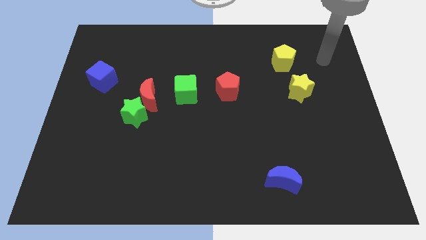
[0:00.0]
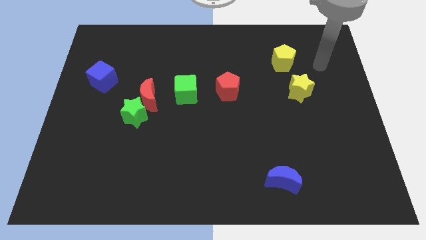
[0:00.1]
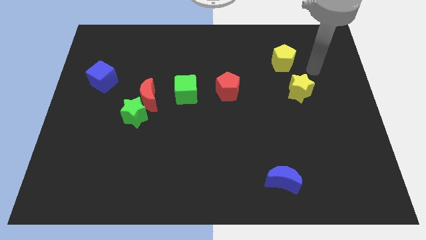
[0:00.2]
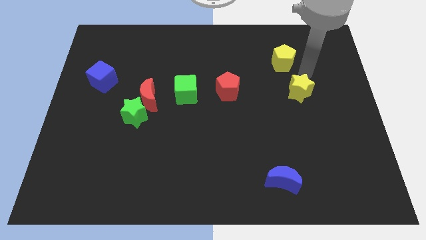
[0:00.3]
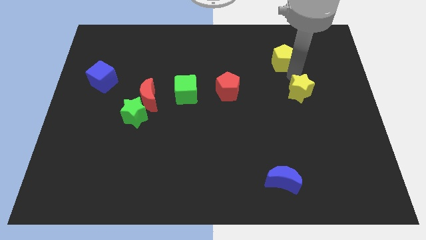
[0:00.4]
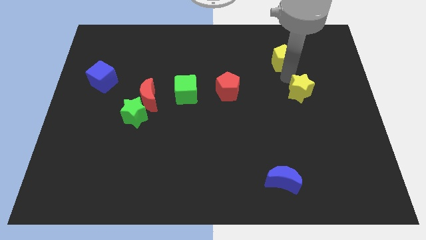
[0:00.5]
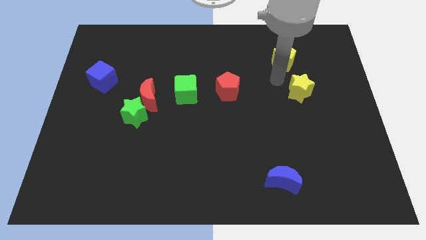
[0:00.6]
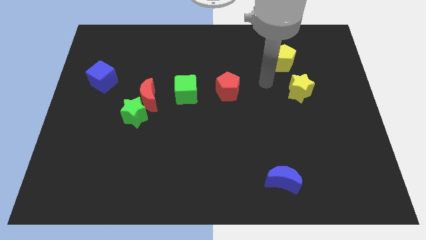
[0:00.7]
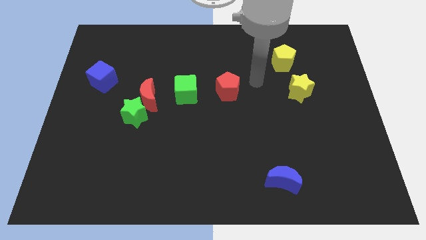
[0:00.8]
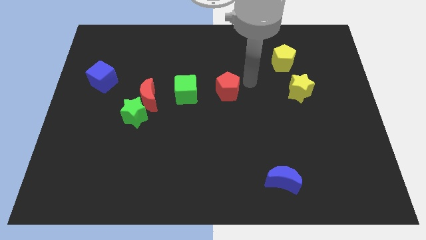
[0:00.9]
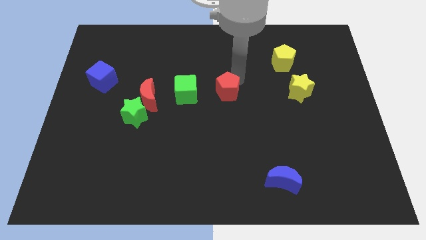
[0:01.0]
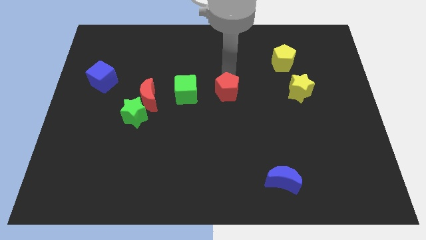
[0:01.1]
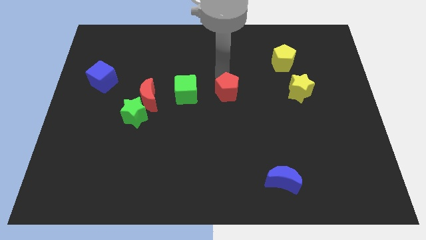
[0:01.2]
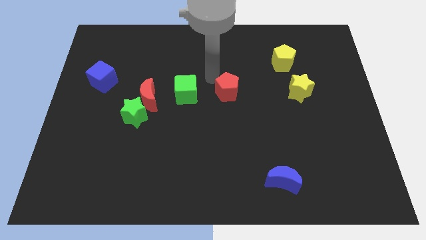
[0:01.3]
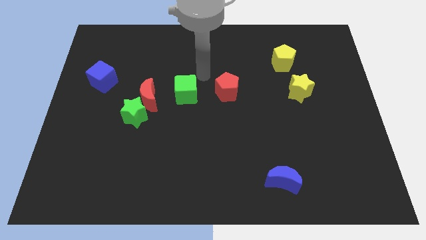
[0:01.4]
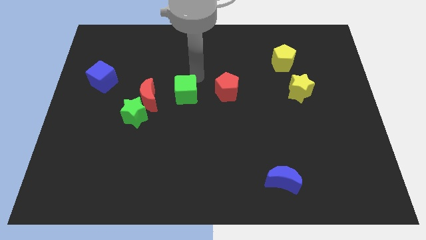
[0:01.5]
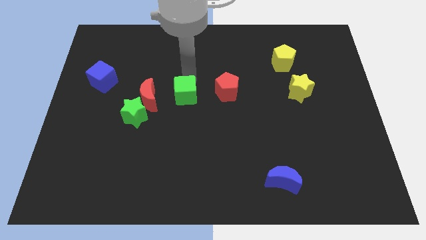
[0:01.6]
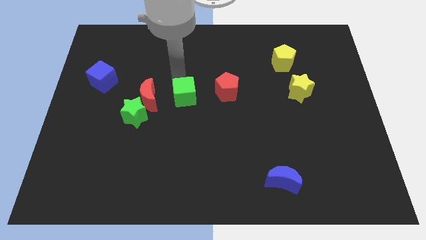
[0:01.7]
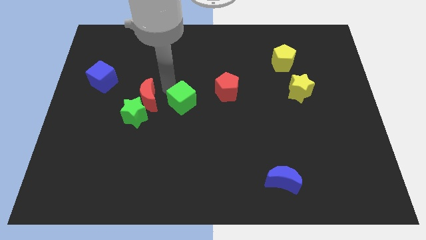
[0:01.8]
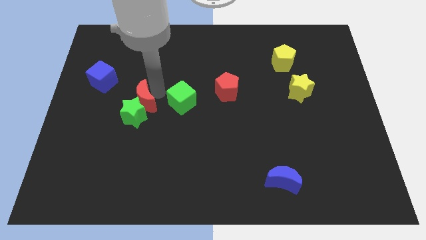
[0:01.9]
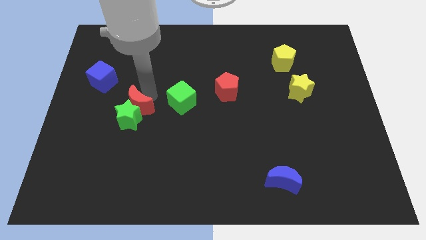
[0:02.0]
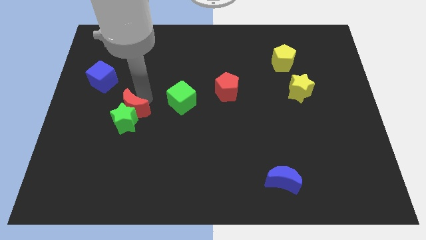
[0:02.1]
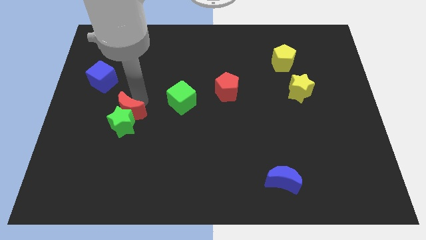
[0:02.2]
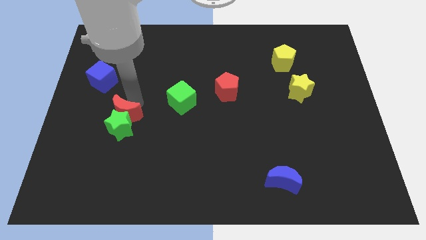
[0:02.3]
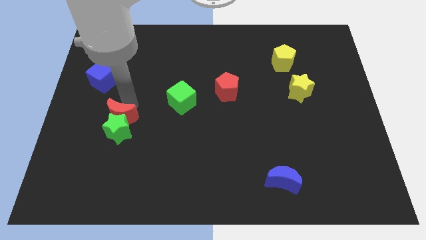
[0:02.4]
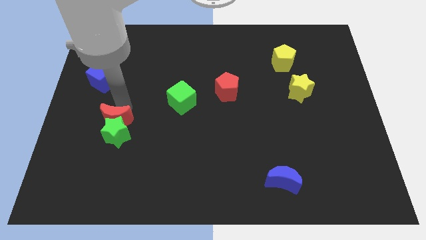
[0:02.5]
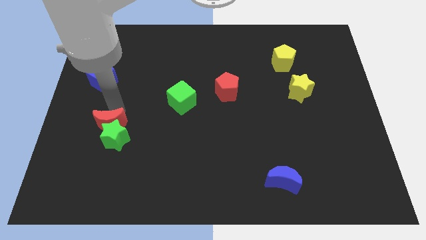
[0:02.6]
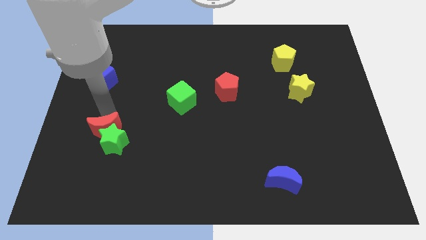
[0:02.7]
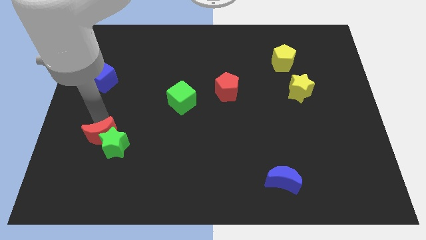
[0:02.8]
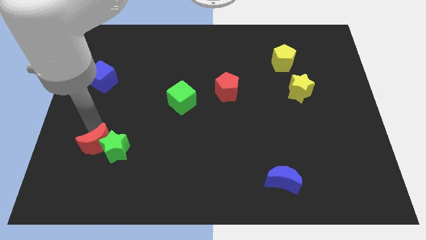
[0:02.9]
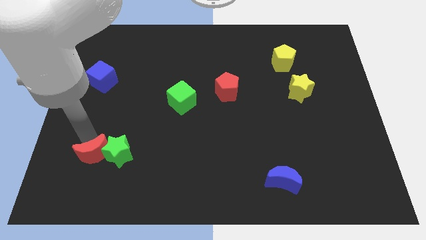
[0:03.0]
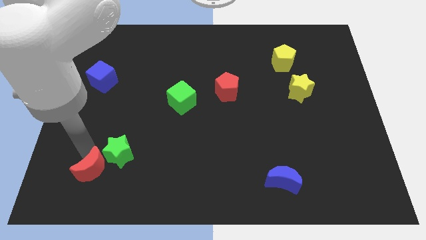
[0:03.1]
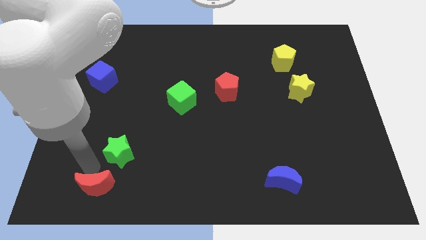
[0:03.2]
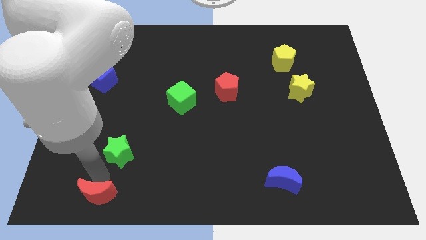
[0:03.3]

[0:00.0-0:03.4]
separate the green star from the red moon

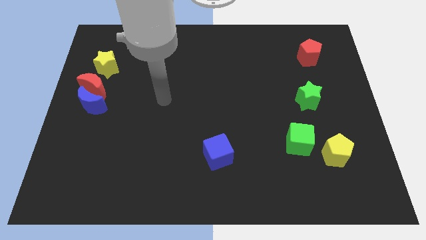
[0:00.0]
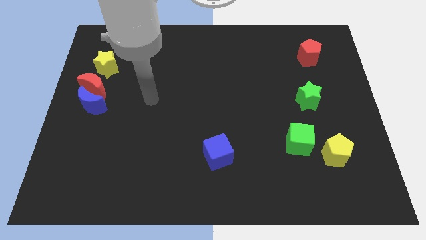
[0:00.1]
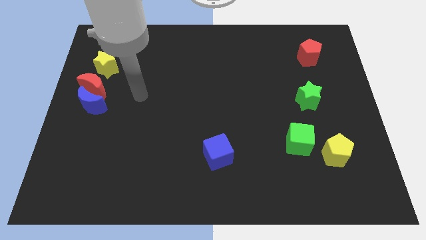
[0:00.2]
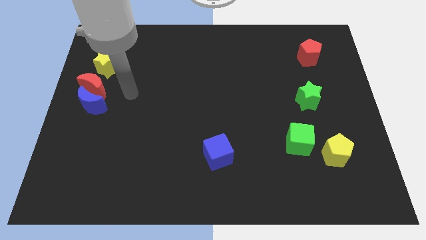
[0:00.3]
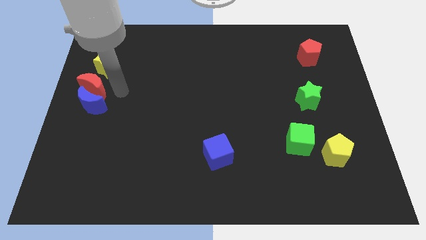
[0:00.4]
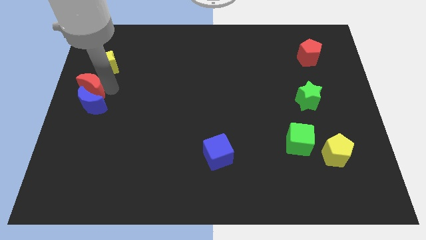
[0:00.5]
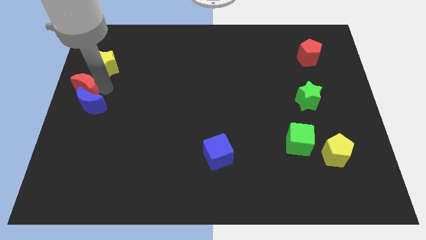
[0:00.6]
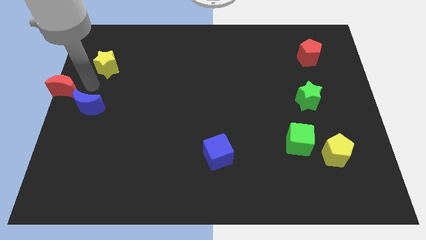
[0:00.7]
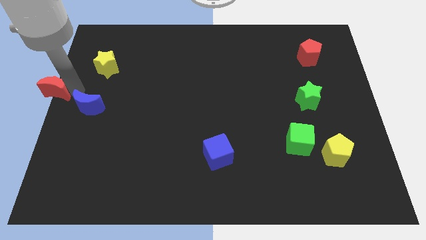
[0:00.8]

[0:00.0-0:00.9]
separate the blue moon from the red moon

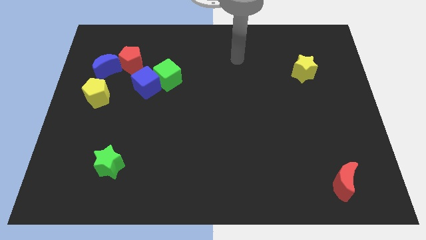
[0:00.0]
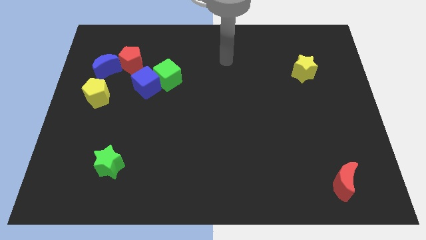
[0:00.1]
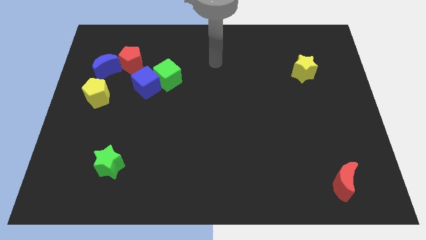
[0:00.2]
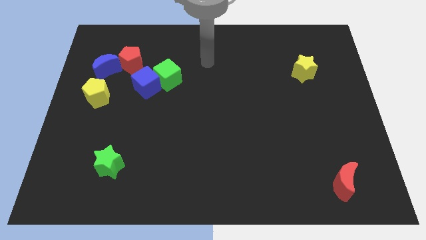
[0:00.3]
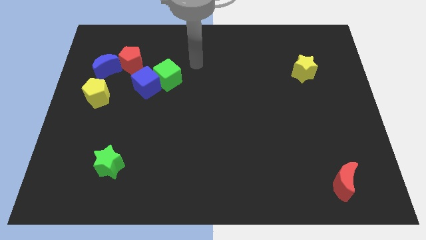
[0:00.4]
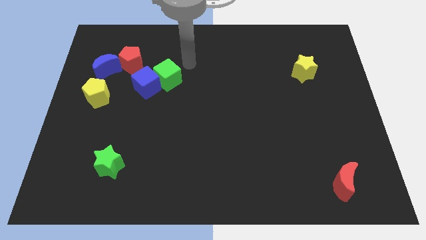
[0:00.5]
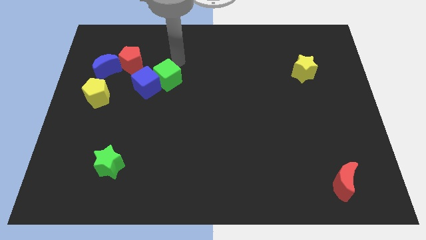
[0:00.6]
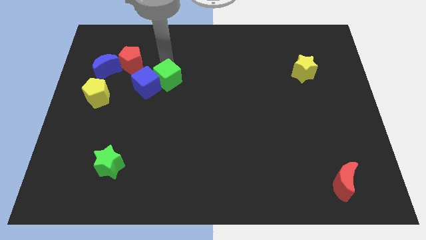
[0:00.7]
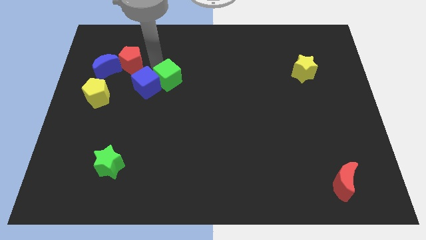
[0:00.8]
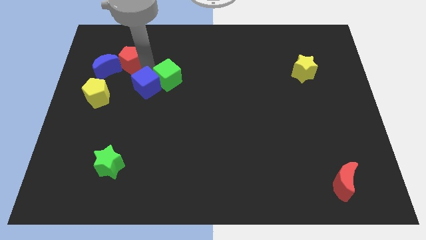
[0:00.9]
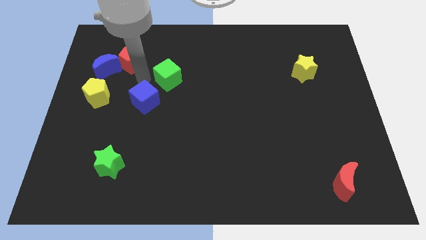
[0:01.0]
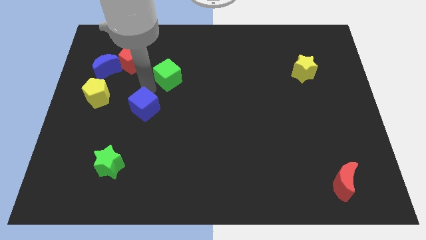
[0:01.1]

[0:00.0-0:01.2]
move the green cube away from the blue cube

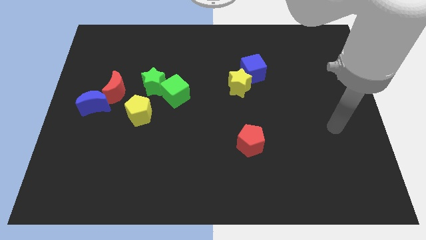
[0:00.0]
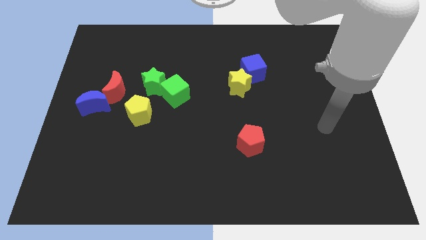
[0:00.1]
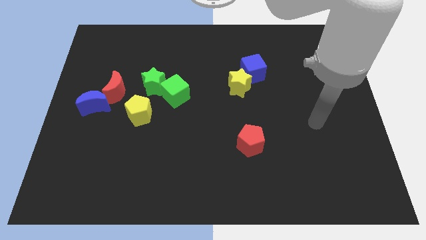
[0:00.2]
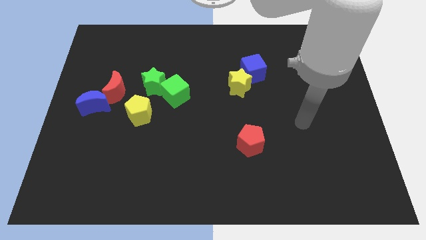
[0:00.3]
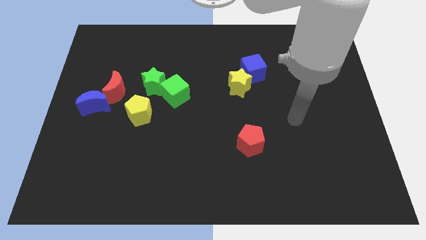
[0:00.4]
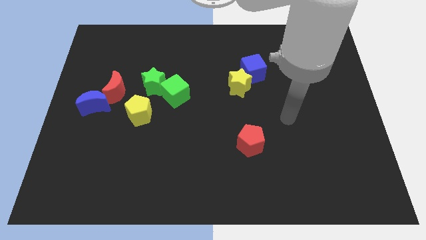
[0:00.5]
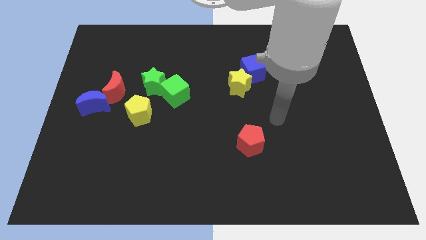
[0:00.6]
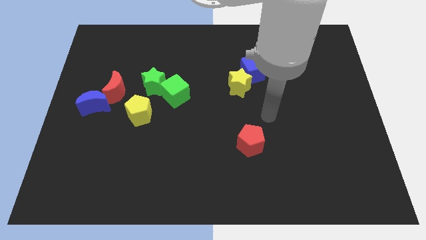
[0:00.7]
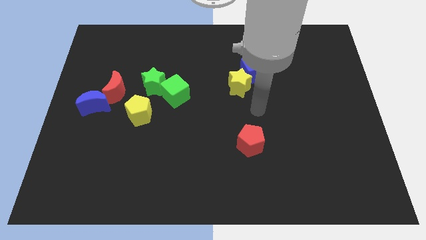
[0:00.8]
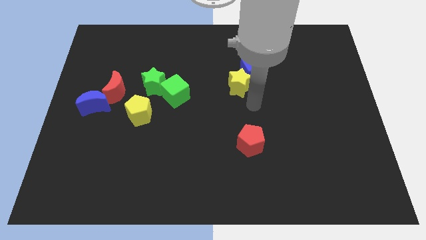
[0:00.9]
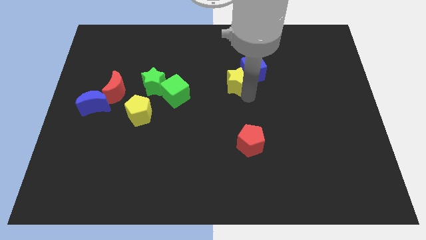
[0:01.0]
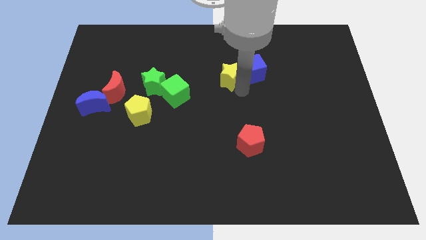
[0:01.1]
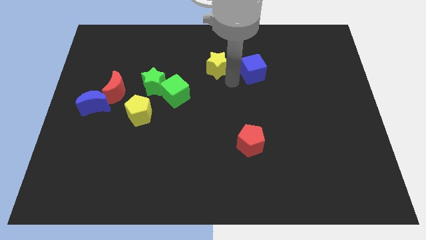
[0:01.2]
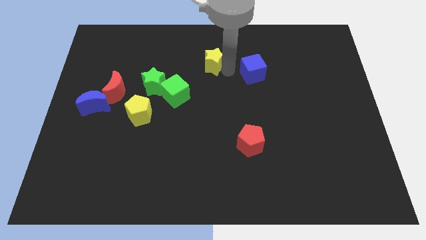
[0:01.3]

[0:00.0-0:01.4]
pull the blue cube apart from the yellow star

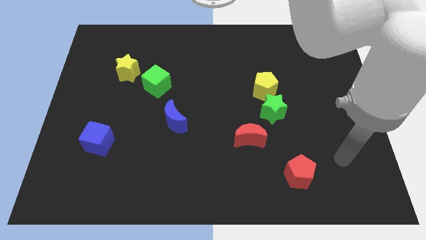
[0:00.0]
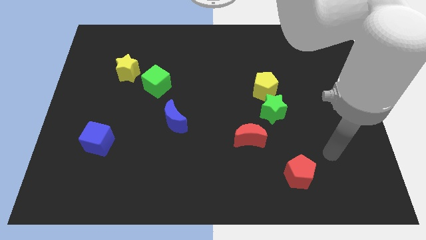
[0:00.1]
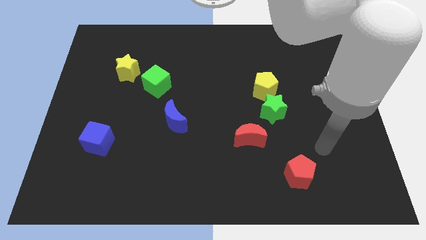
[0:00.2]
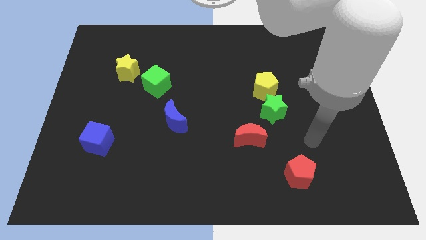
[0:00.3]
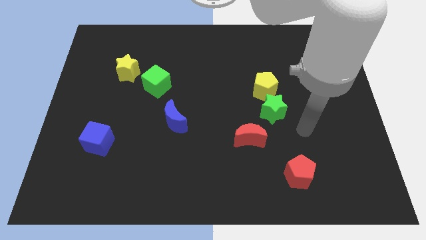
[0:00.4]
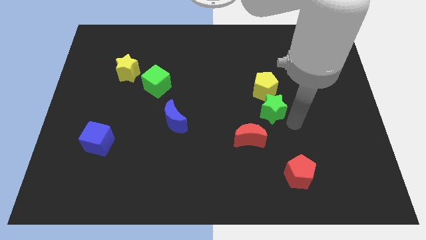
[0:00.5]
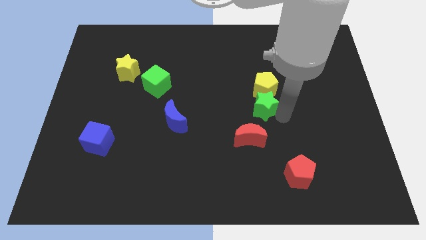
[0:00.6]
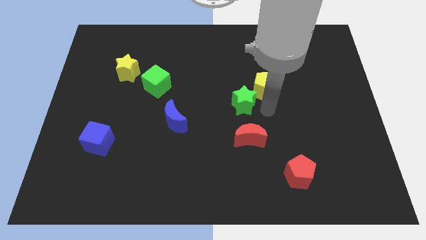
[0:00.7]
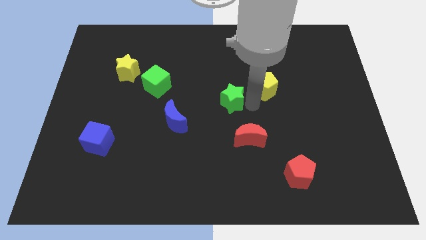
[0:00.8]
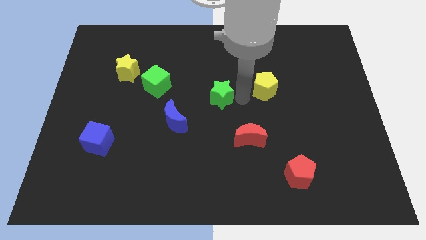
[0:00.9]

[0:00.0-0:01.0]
separate the yellow pentagon from the green star

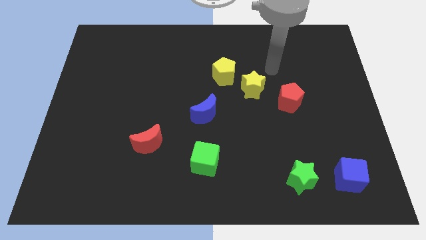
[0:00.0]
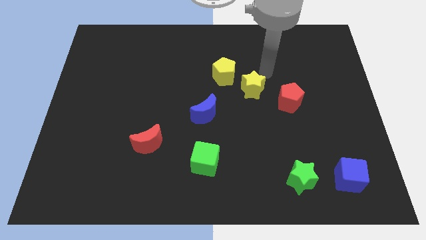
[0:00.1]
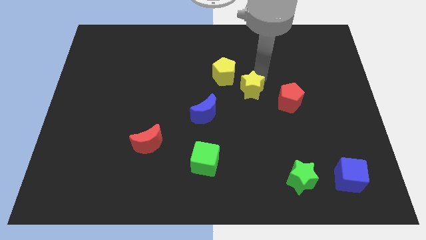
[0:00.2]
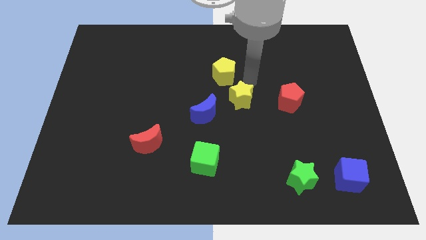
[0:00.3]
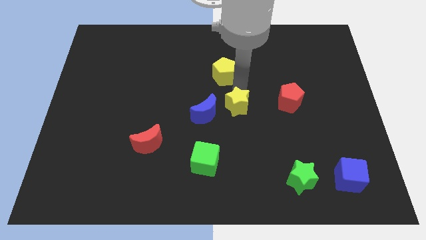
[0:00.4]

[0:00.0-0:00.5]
move the yellow pentagon away from the yellow star

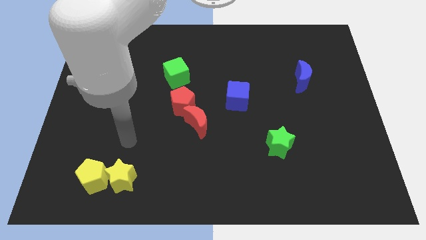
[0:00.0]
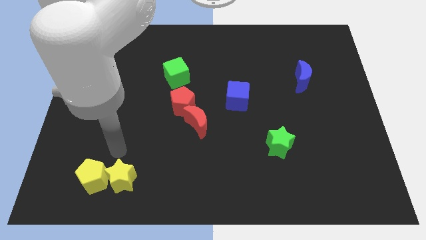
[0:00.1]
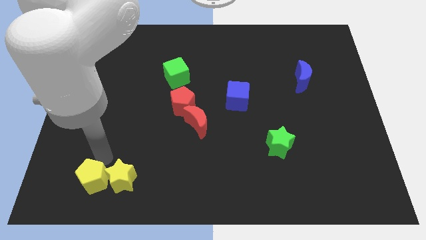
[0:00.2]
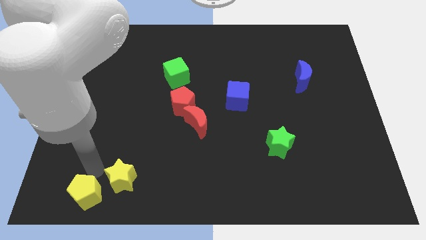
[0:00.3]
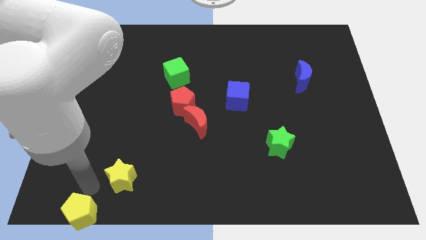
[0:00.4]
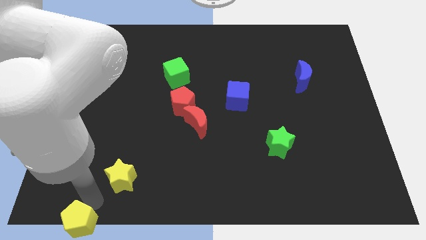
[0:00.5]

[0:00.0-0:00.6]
move the yellow star away from the yellow pentagon

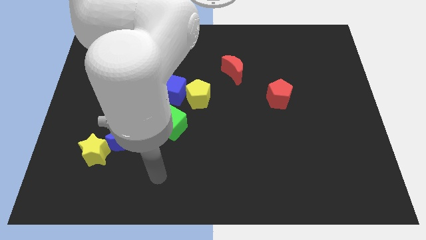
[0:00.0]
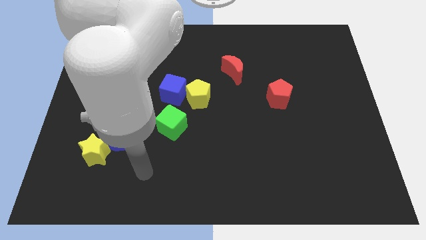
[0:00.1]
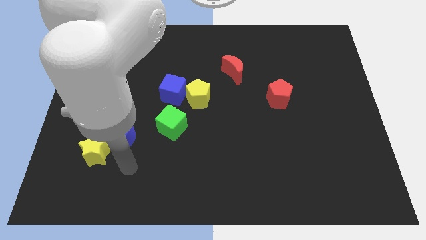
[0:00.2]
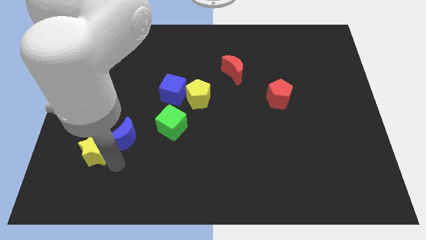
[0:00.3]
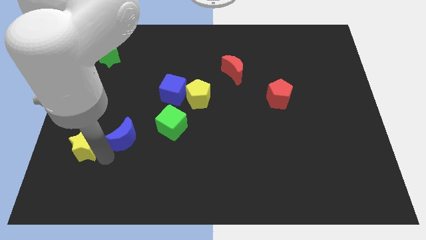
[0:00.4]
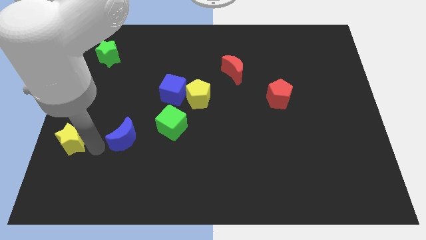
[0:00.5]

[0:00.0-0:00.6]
move the blue moon away from the yellow star
